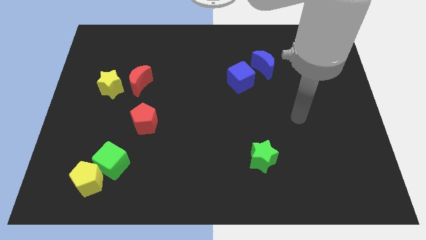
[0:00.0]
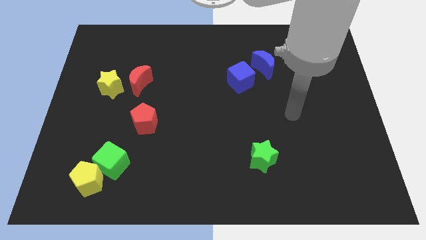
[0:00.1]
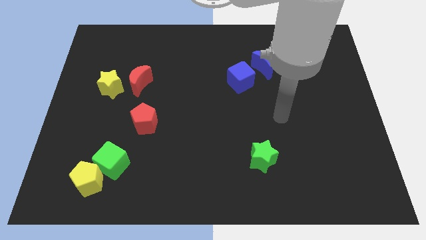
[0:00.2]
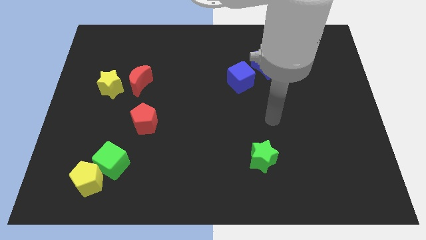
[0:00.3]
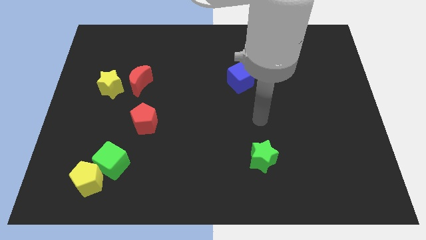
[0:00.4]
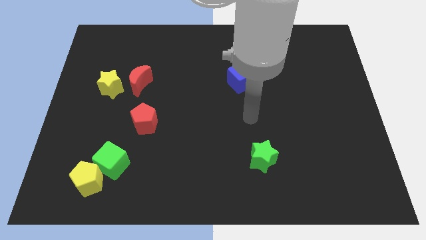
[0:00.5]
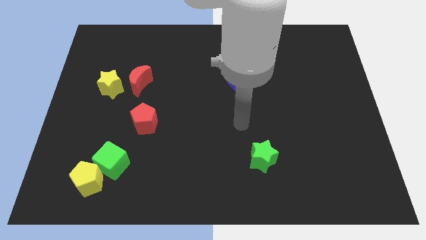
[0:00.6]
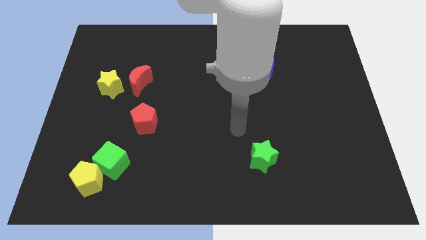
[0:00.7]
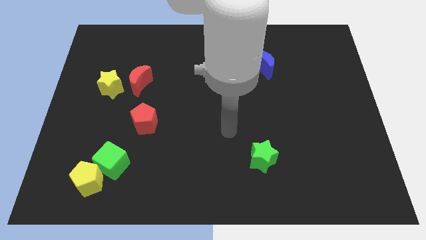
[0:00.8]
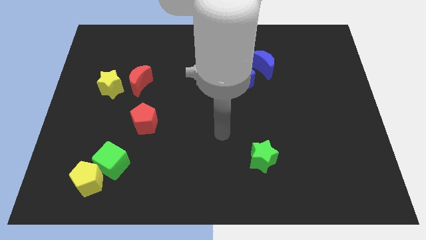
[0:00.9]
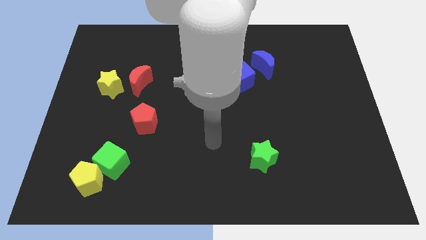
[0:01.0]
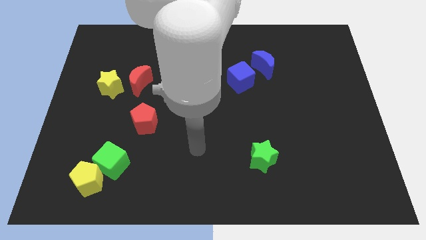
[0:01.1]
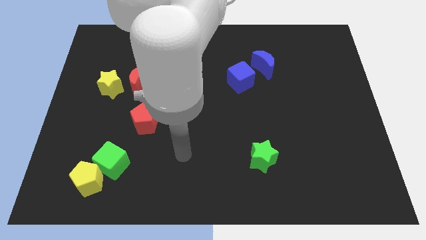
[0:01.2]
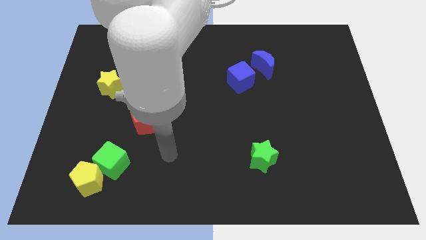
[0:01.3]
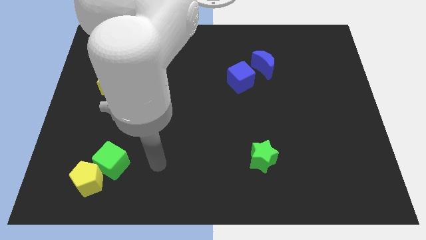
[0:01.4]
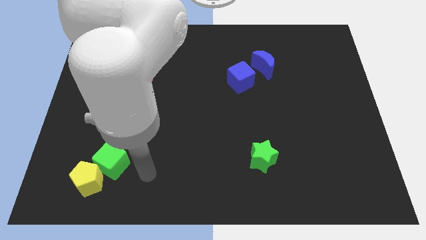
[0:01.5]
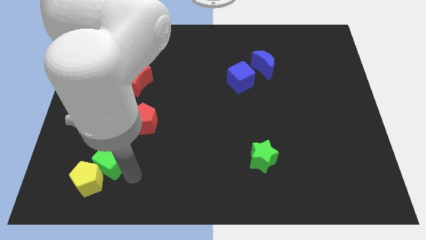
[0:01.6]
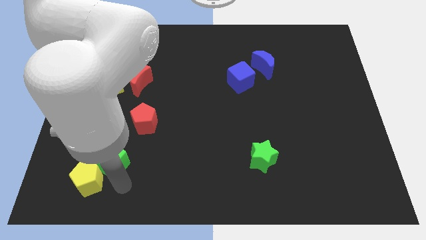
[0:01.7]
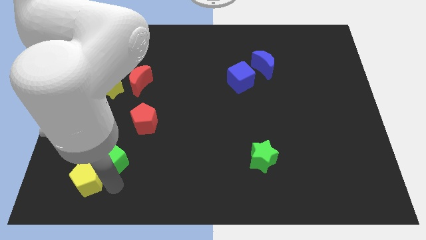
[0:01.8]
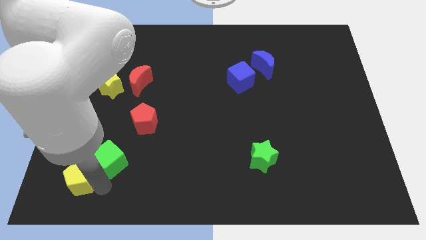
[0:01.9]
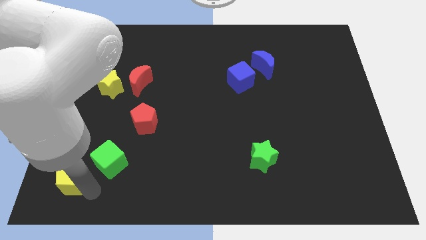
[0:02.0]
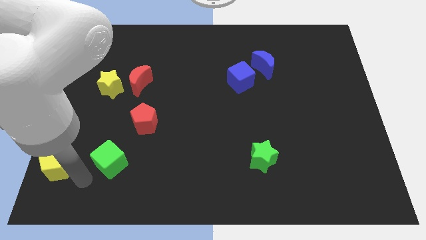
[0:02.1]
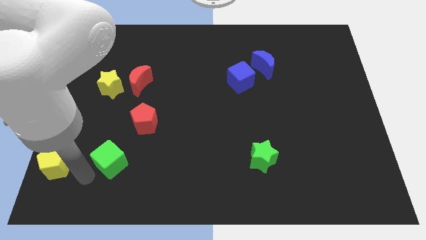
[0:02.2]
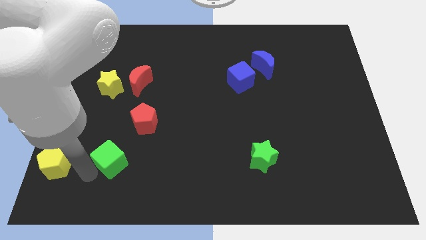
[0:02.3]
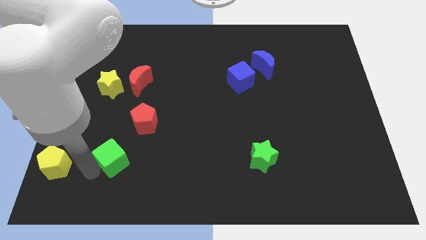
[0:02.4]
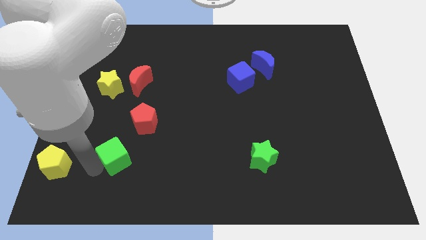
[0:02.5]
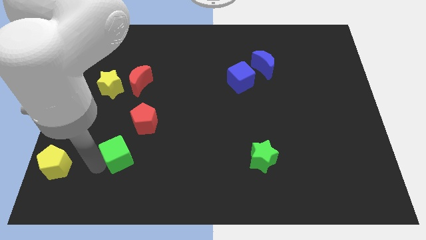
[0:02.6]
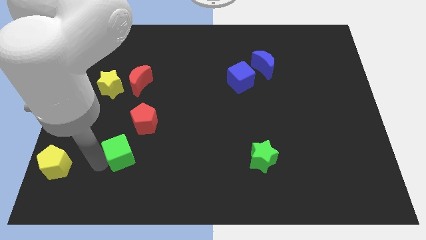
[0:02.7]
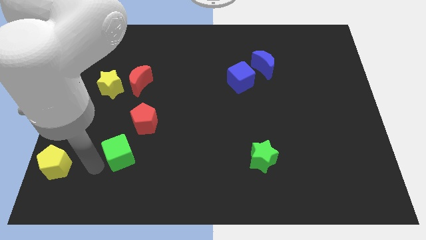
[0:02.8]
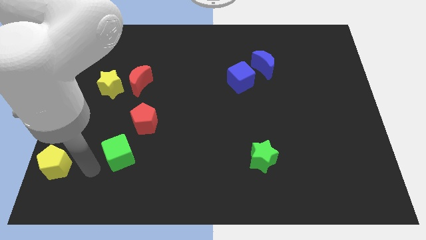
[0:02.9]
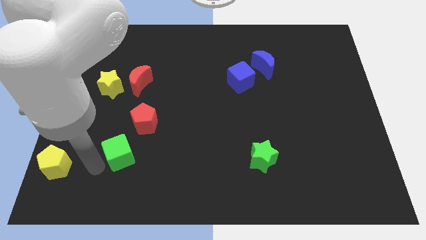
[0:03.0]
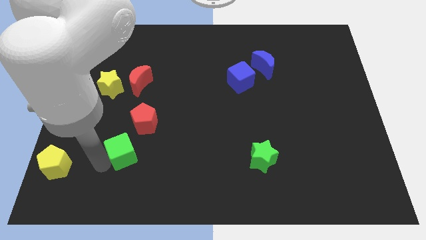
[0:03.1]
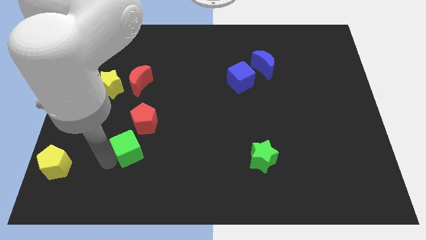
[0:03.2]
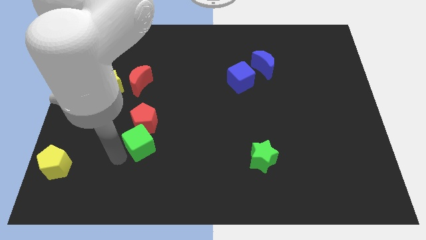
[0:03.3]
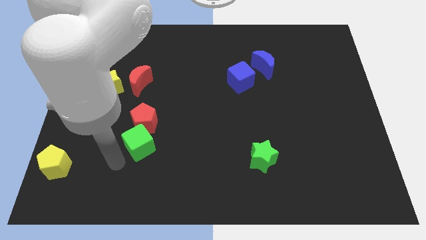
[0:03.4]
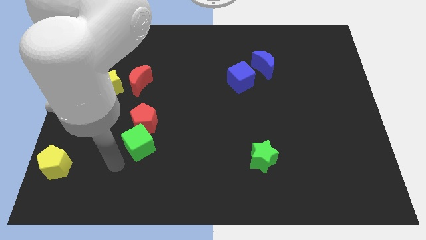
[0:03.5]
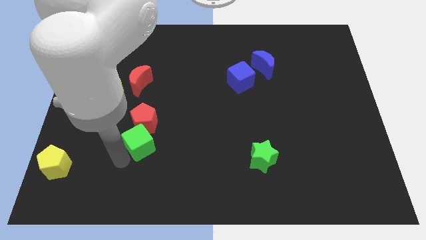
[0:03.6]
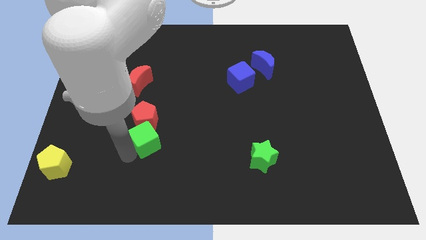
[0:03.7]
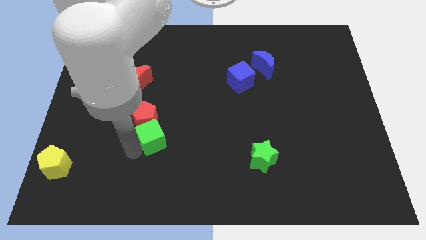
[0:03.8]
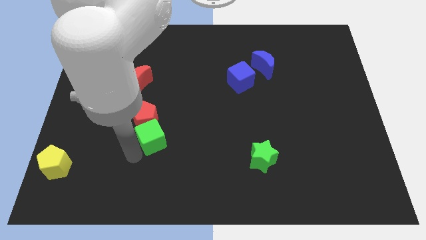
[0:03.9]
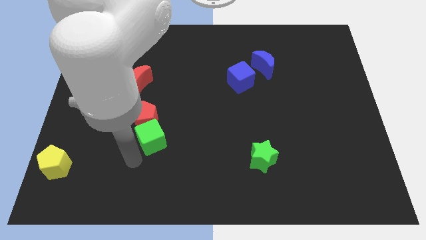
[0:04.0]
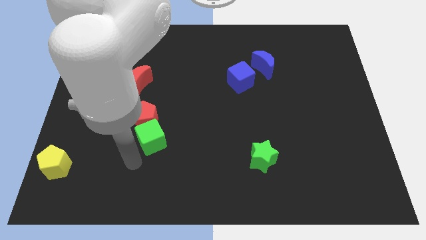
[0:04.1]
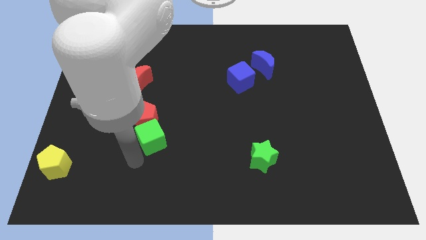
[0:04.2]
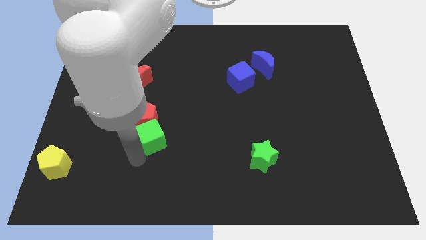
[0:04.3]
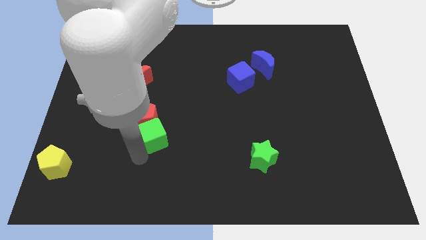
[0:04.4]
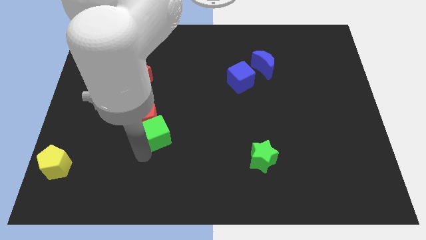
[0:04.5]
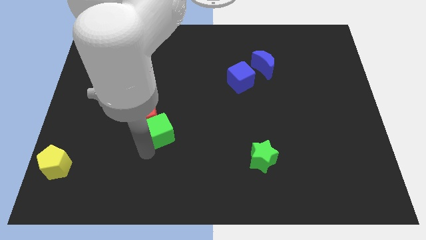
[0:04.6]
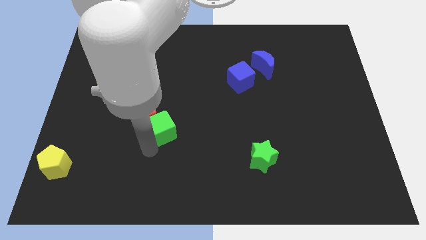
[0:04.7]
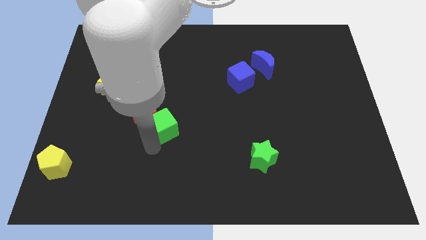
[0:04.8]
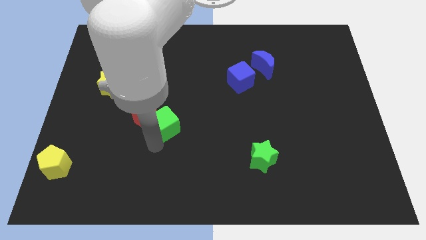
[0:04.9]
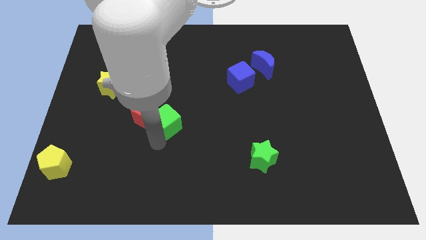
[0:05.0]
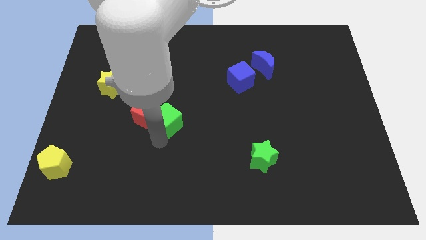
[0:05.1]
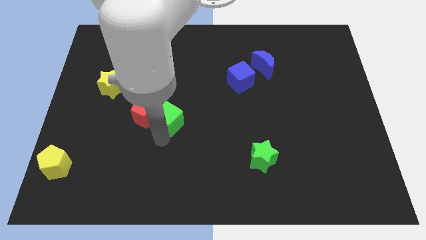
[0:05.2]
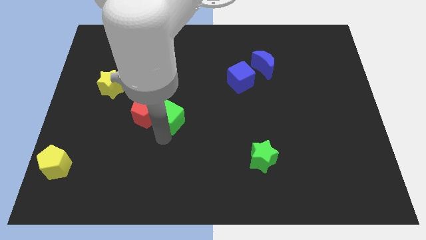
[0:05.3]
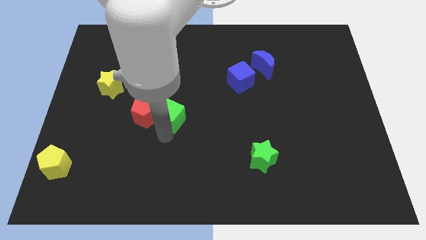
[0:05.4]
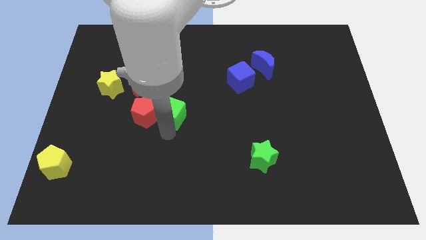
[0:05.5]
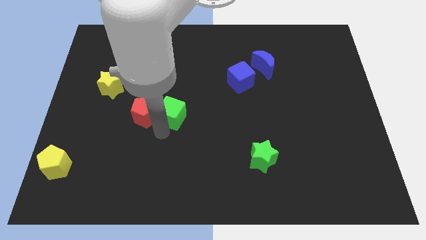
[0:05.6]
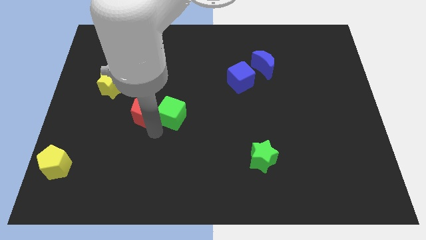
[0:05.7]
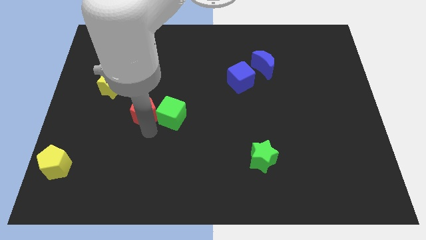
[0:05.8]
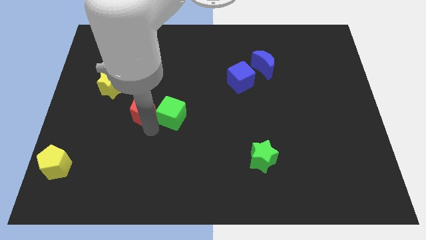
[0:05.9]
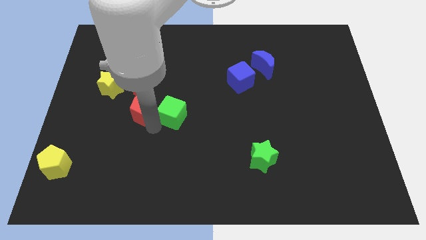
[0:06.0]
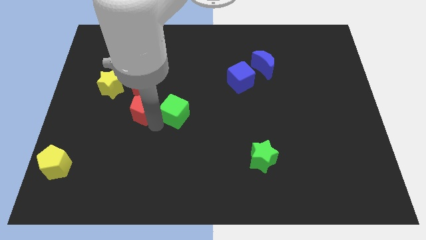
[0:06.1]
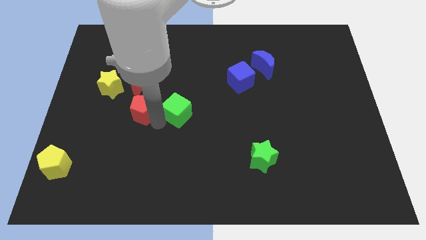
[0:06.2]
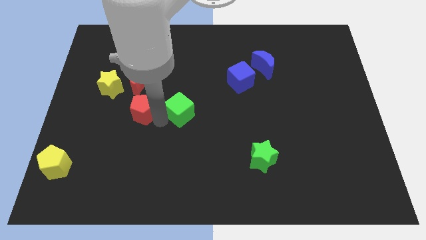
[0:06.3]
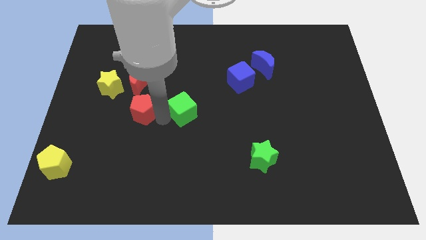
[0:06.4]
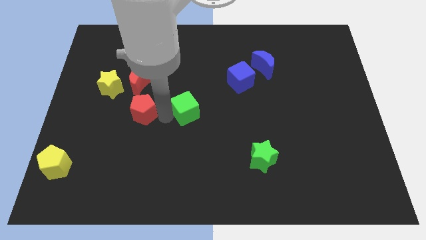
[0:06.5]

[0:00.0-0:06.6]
push the green cube diagonally up and right

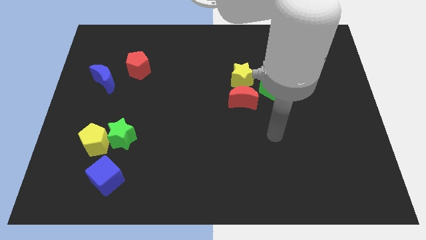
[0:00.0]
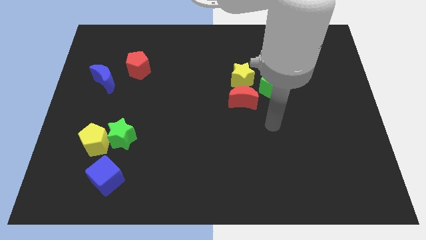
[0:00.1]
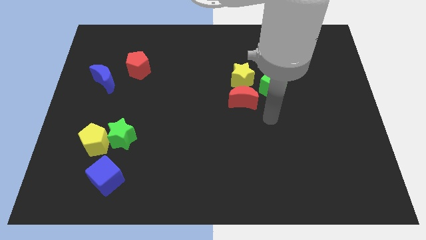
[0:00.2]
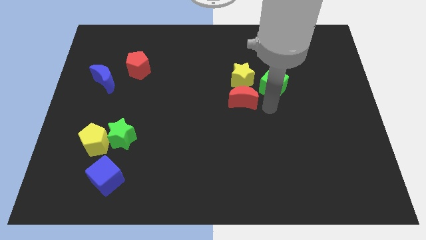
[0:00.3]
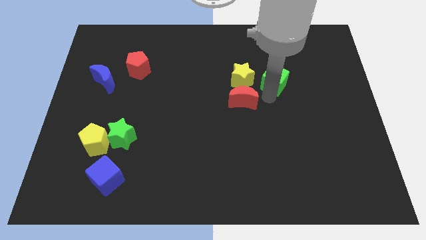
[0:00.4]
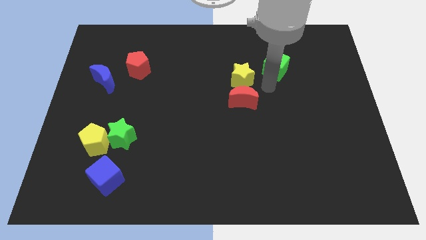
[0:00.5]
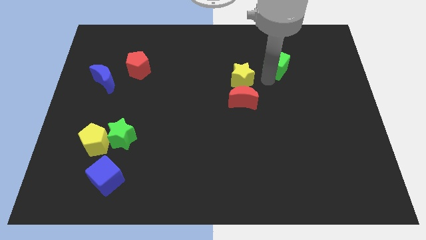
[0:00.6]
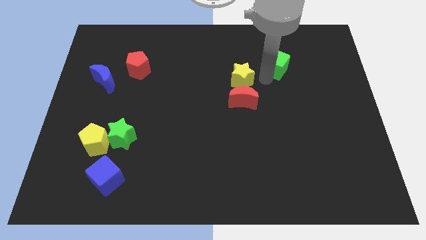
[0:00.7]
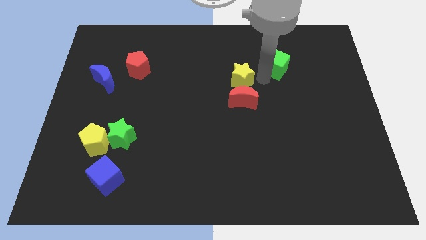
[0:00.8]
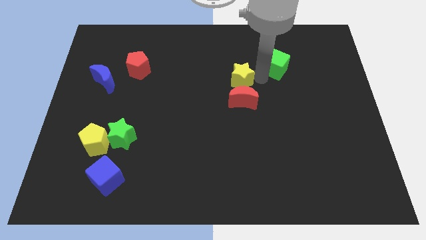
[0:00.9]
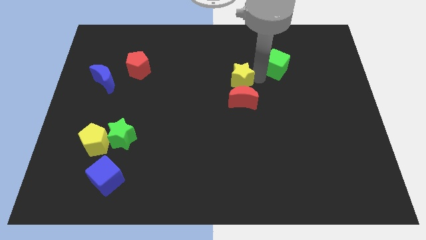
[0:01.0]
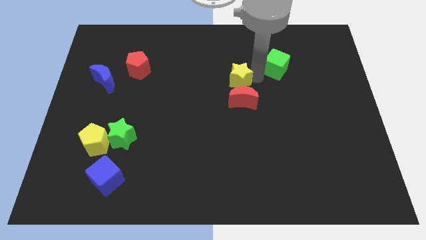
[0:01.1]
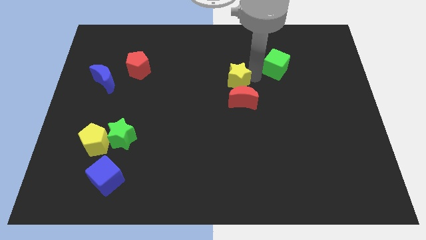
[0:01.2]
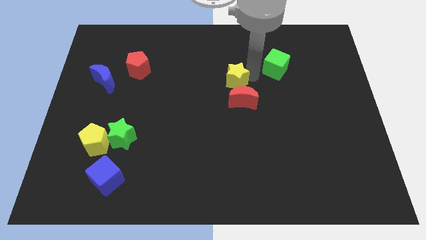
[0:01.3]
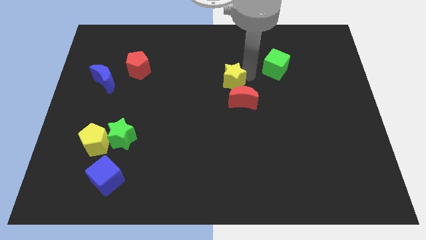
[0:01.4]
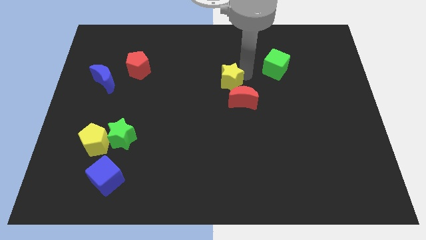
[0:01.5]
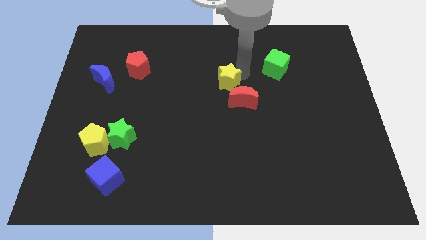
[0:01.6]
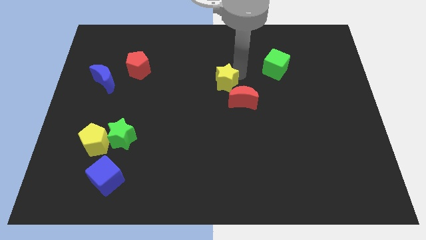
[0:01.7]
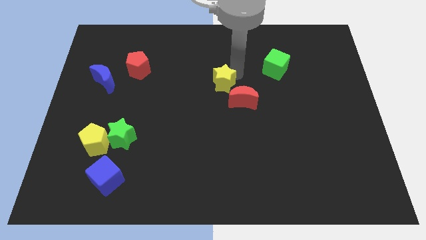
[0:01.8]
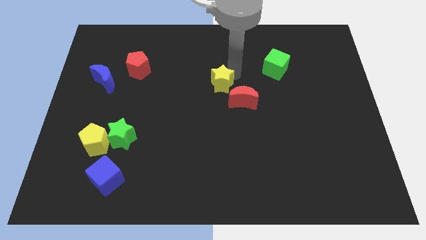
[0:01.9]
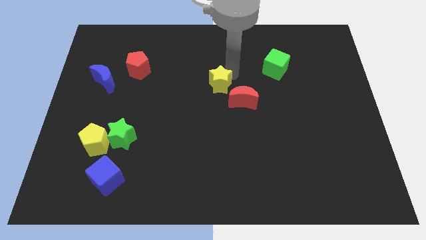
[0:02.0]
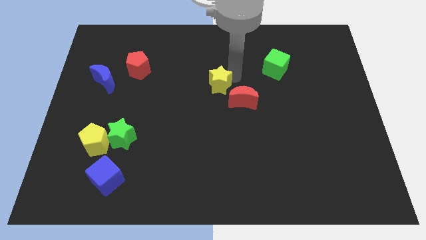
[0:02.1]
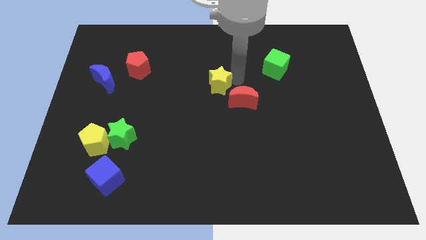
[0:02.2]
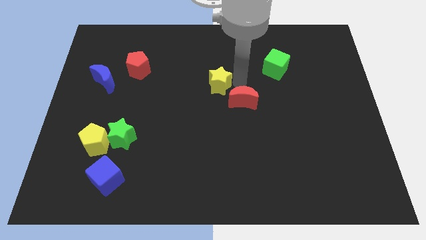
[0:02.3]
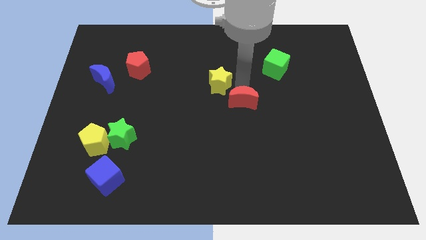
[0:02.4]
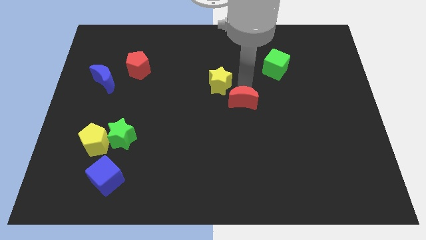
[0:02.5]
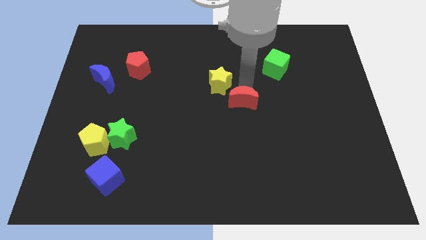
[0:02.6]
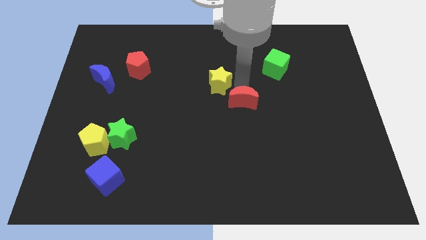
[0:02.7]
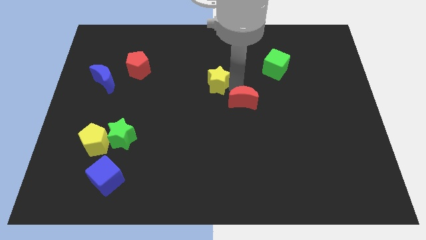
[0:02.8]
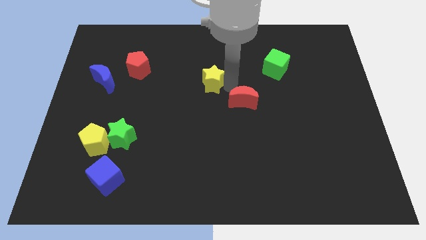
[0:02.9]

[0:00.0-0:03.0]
slightly slide the yellow star to the left
